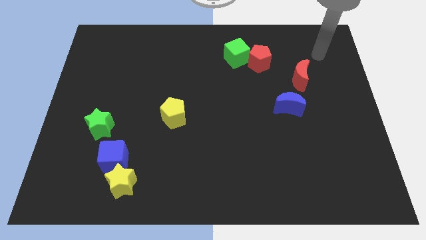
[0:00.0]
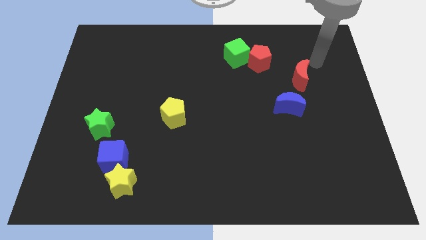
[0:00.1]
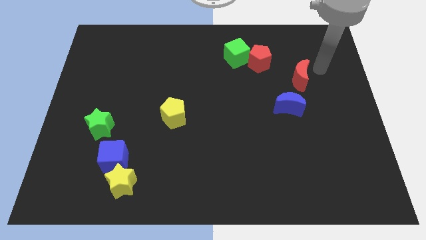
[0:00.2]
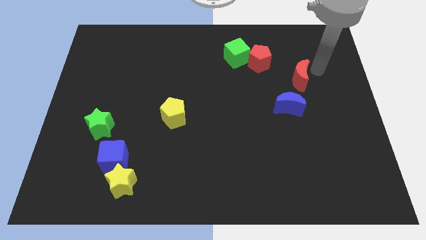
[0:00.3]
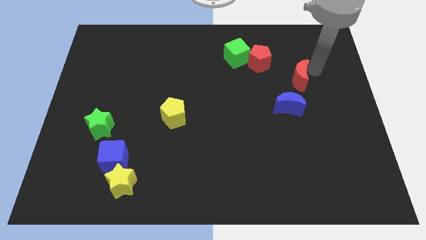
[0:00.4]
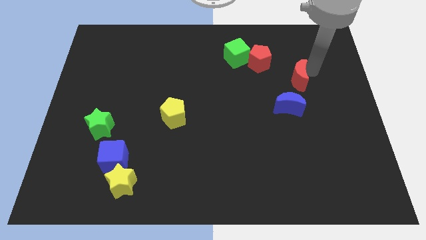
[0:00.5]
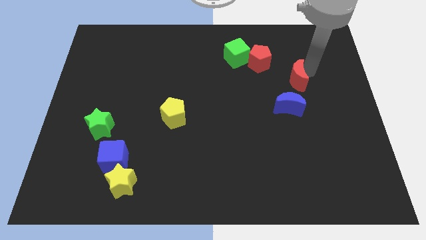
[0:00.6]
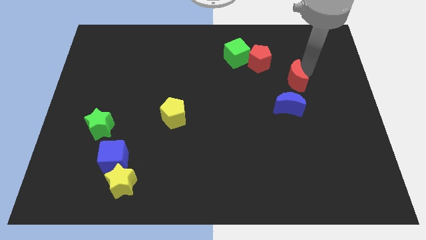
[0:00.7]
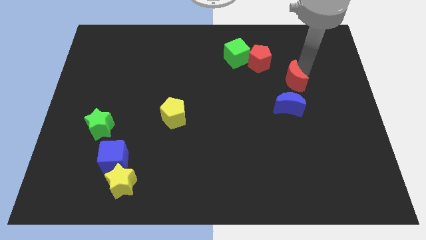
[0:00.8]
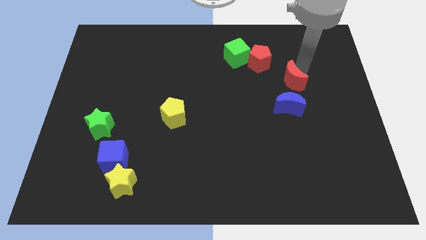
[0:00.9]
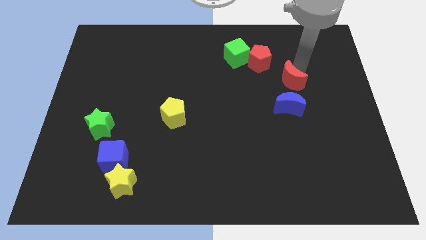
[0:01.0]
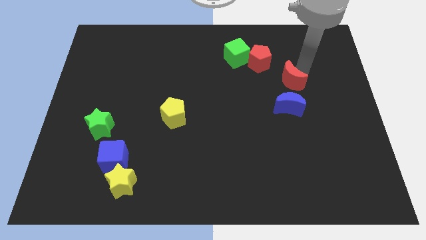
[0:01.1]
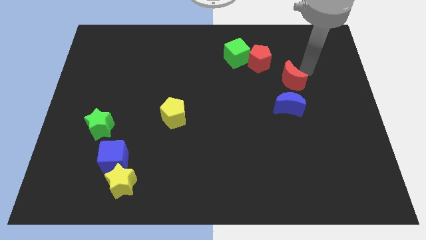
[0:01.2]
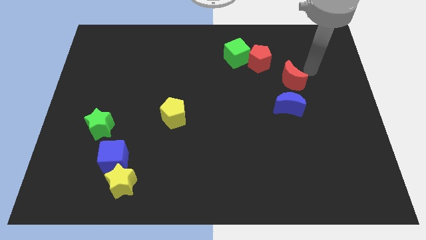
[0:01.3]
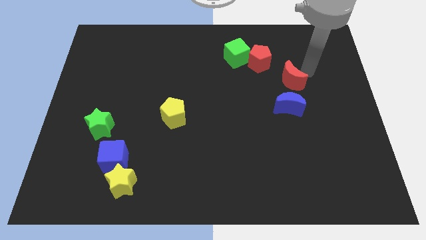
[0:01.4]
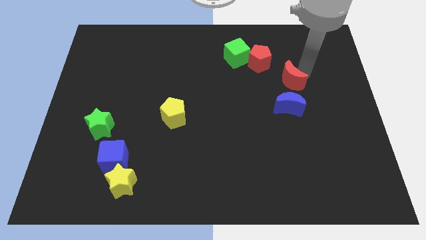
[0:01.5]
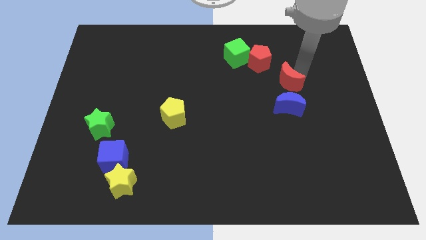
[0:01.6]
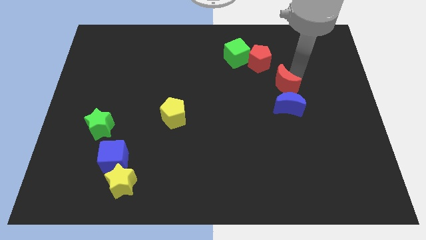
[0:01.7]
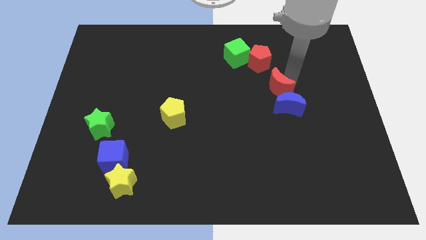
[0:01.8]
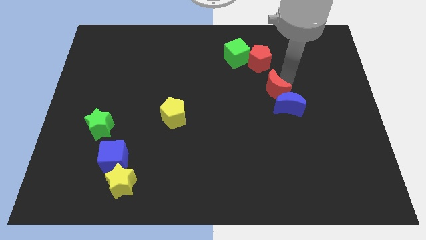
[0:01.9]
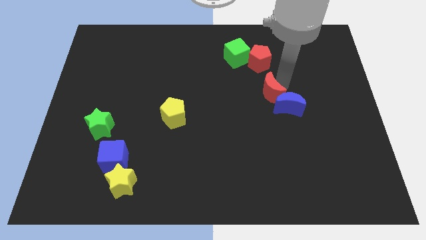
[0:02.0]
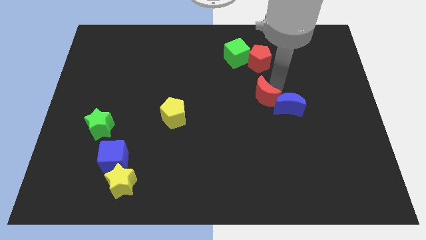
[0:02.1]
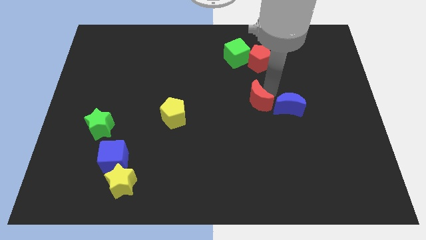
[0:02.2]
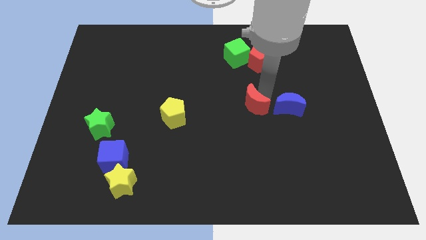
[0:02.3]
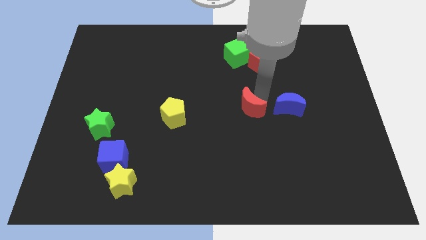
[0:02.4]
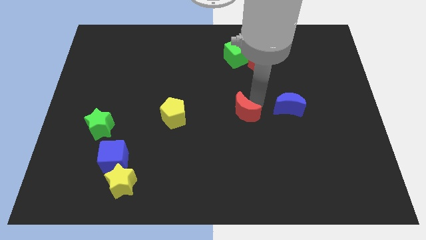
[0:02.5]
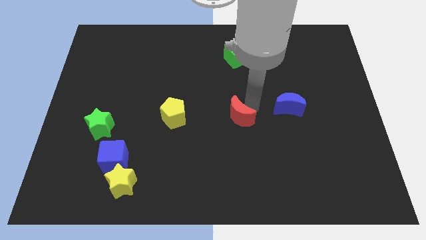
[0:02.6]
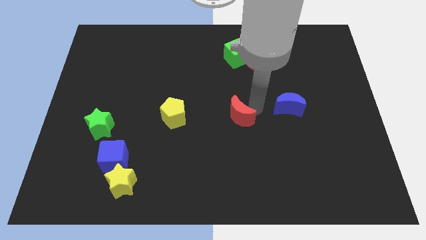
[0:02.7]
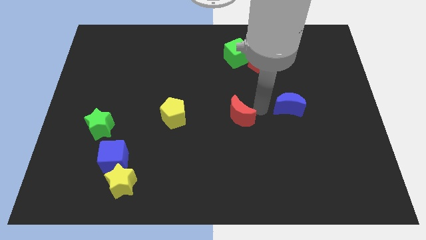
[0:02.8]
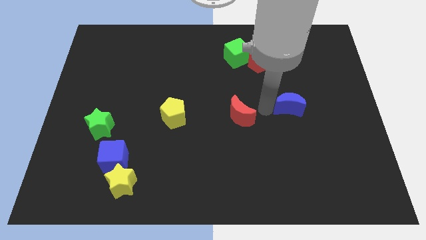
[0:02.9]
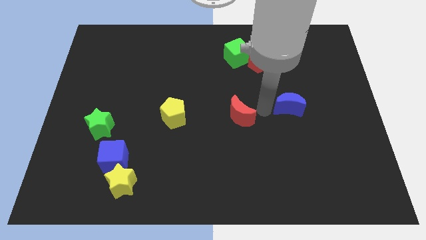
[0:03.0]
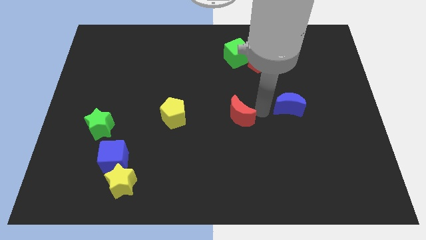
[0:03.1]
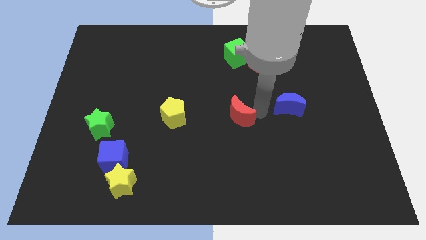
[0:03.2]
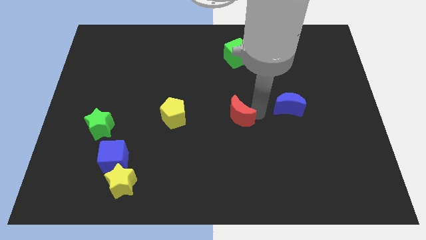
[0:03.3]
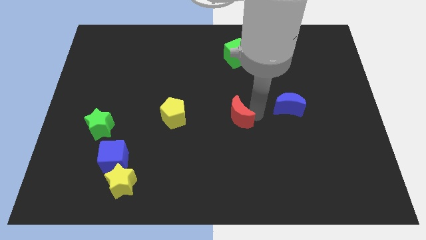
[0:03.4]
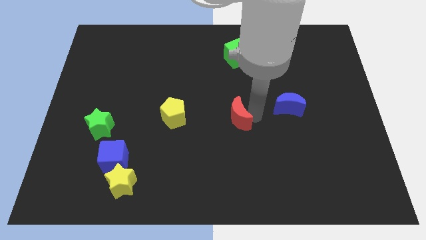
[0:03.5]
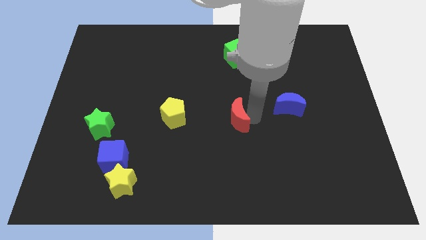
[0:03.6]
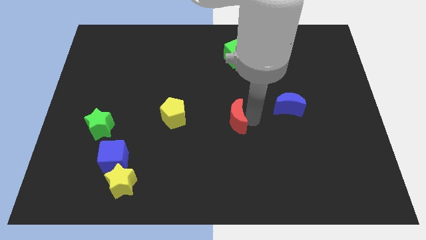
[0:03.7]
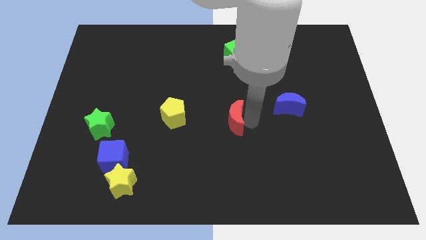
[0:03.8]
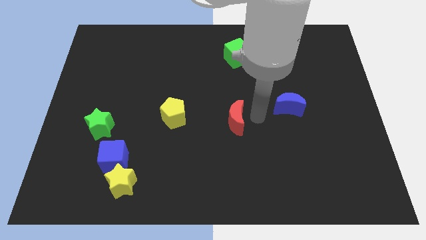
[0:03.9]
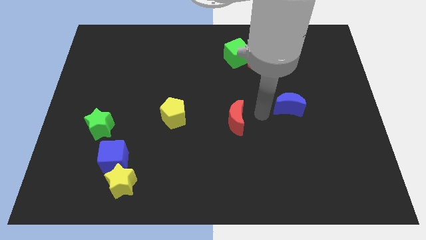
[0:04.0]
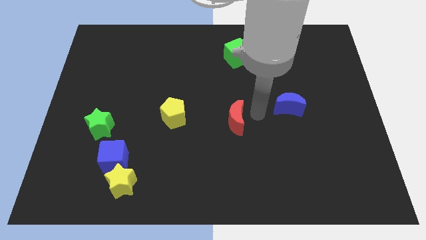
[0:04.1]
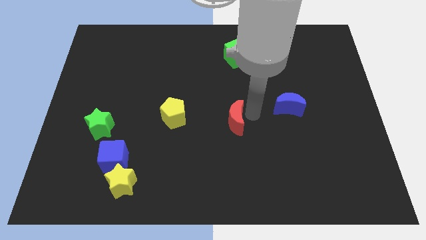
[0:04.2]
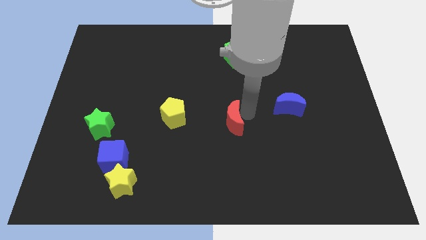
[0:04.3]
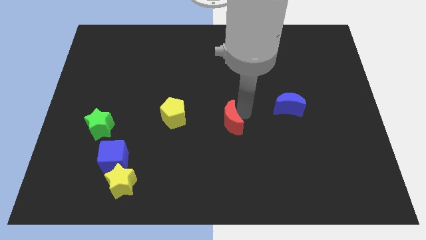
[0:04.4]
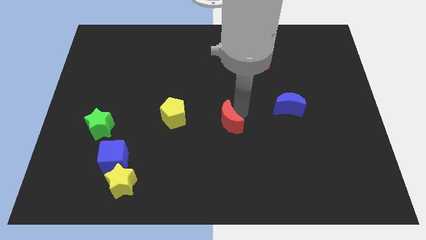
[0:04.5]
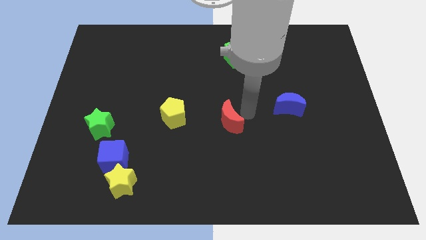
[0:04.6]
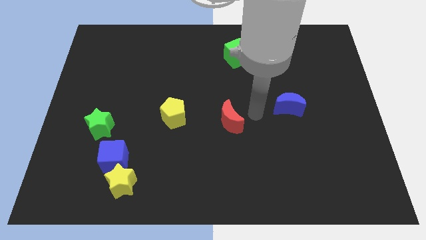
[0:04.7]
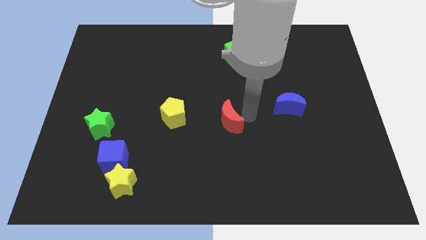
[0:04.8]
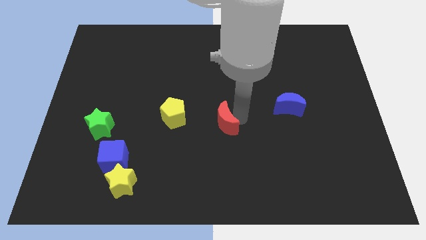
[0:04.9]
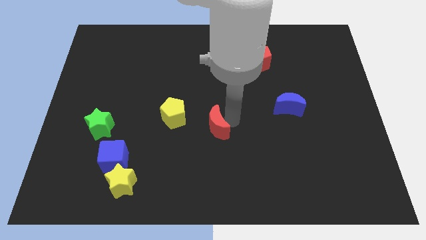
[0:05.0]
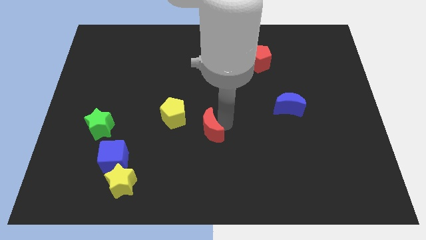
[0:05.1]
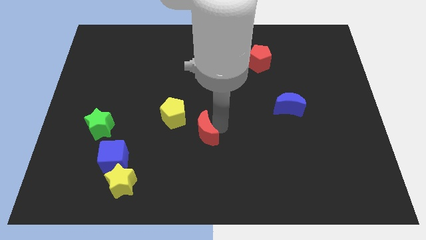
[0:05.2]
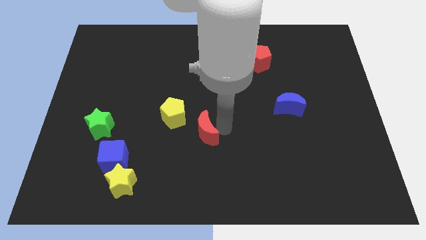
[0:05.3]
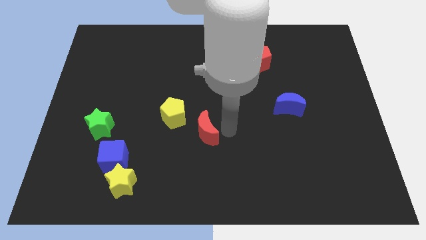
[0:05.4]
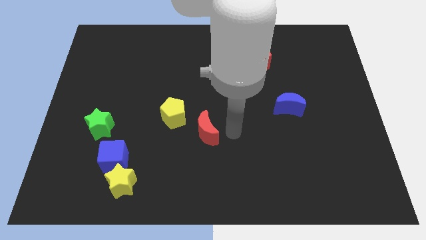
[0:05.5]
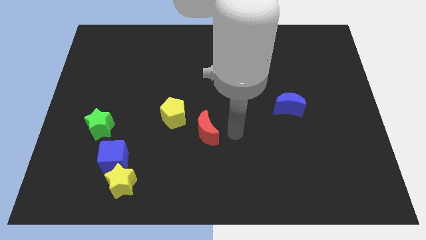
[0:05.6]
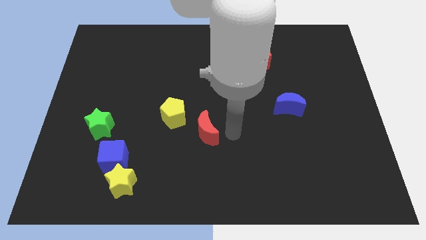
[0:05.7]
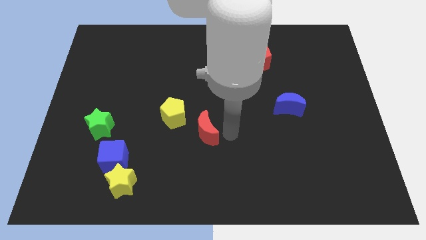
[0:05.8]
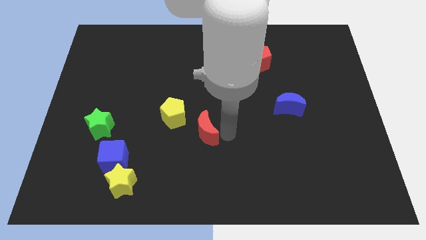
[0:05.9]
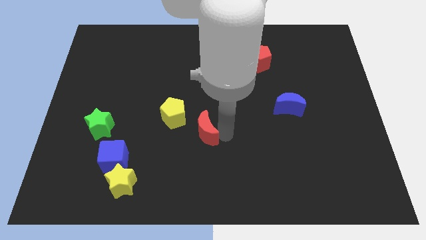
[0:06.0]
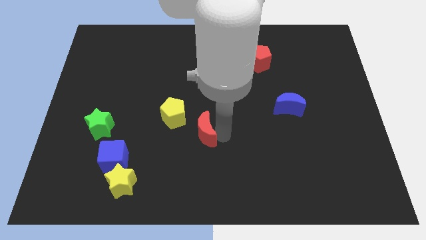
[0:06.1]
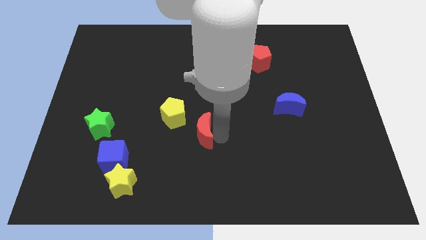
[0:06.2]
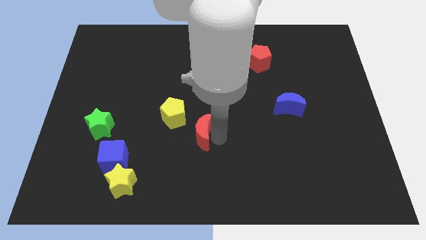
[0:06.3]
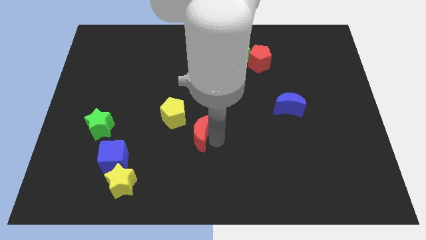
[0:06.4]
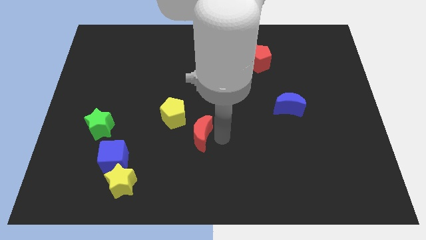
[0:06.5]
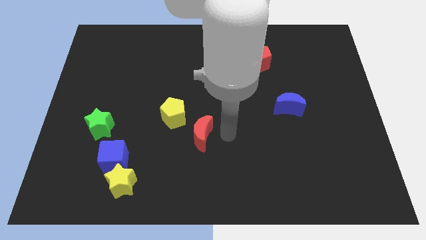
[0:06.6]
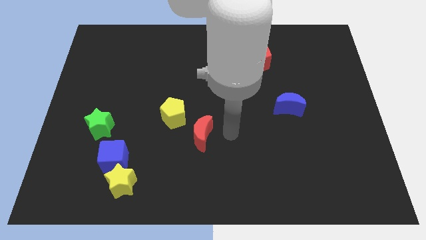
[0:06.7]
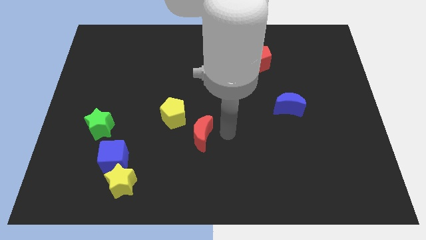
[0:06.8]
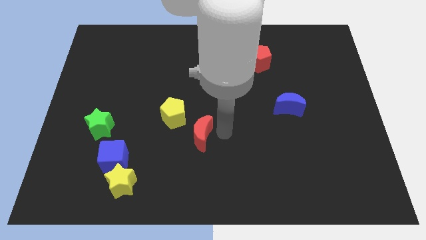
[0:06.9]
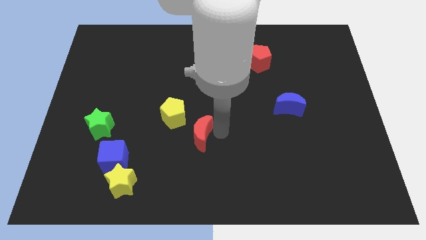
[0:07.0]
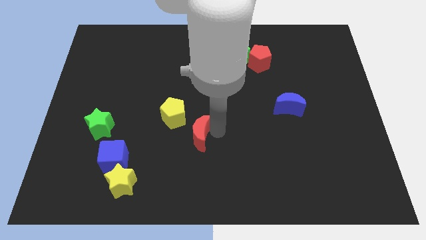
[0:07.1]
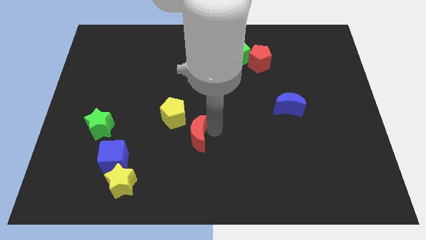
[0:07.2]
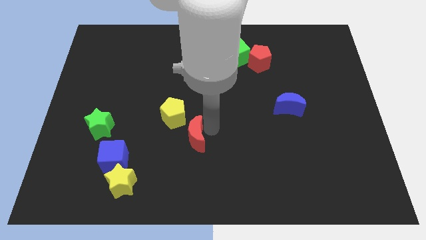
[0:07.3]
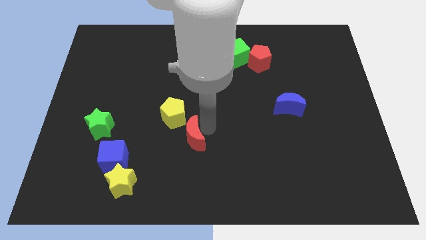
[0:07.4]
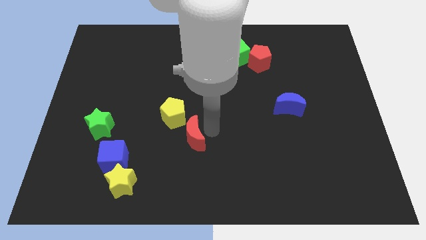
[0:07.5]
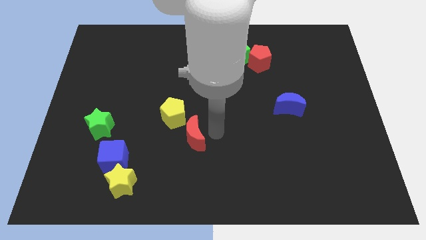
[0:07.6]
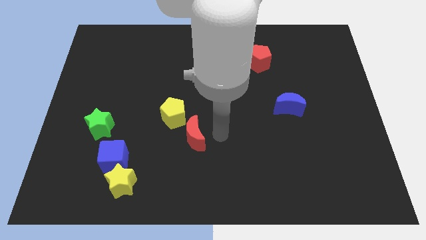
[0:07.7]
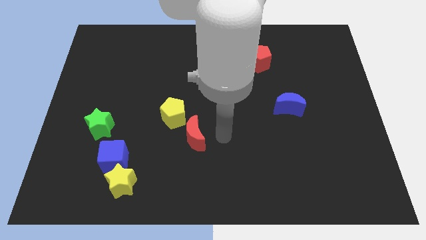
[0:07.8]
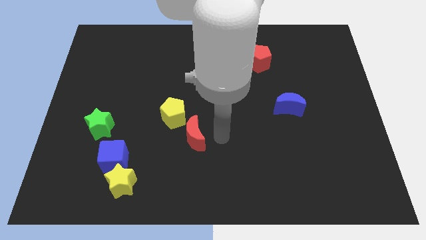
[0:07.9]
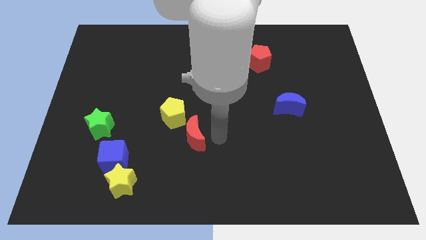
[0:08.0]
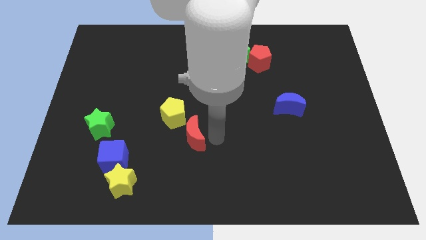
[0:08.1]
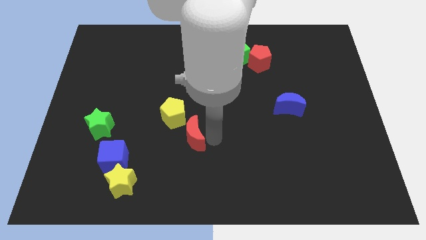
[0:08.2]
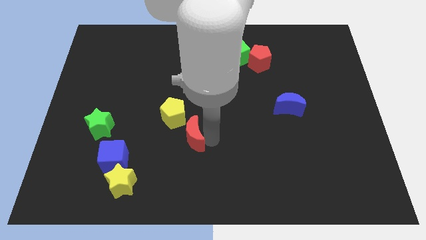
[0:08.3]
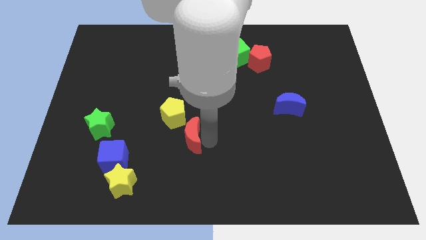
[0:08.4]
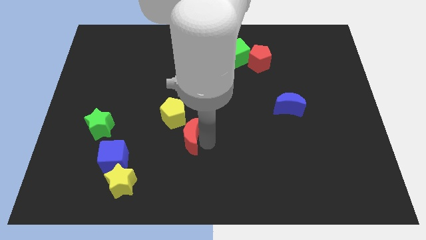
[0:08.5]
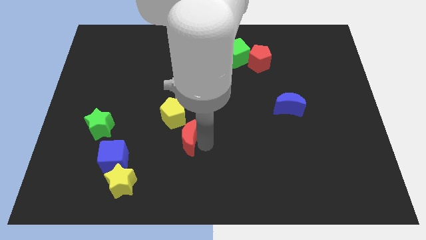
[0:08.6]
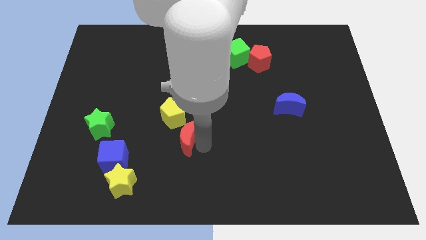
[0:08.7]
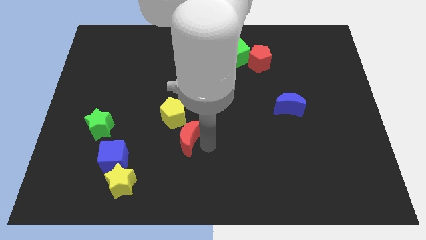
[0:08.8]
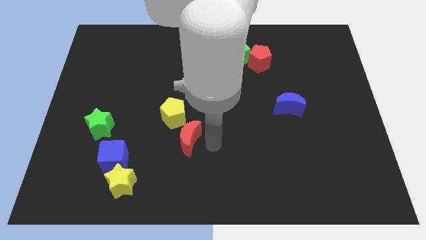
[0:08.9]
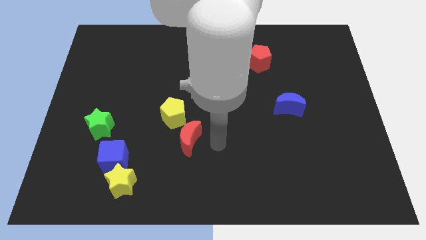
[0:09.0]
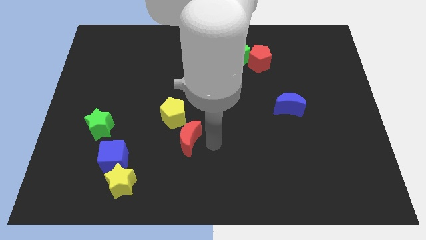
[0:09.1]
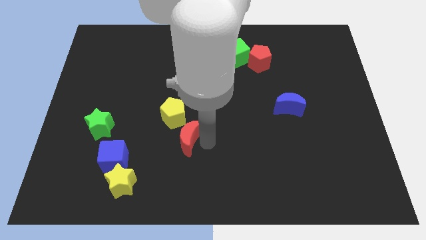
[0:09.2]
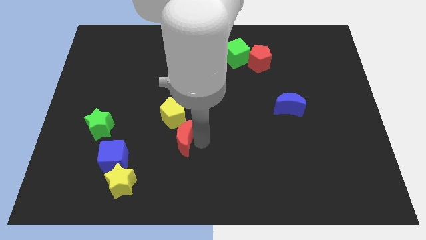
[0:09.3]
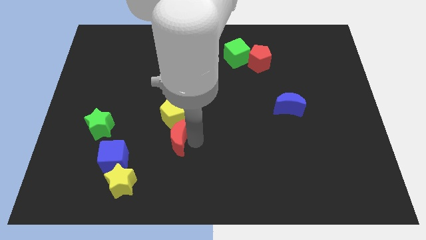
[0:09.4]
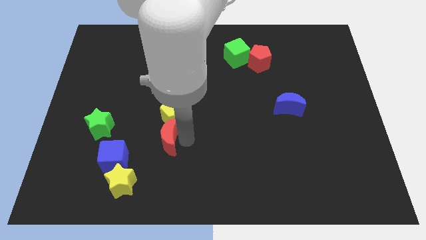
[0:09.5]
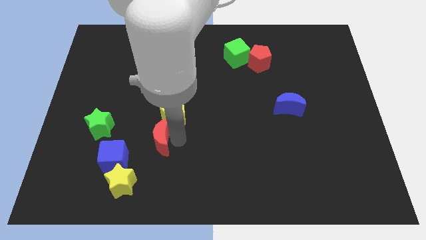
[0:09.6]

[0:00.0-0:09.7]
put the red moon to the top right of the blue cube
